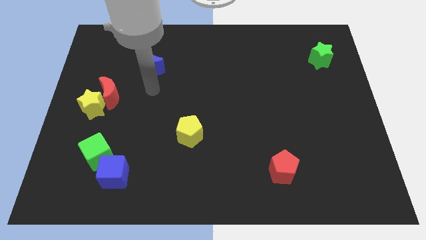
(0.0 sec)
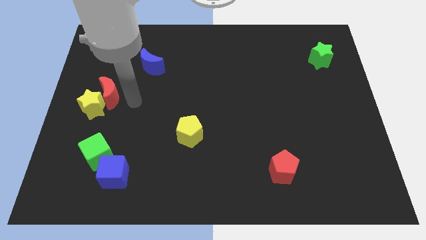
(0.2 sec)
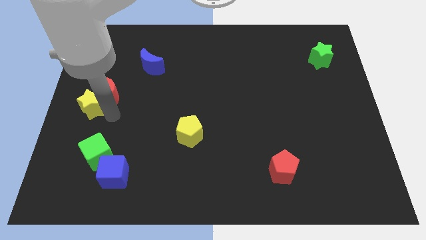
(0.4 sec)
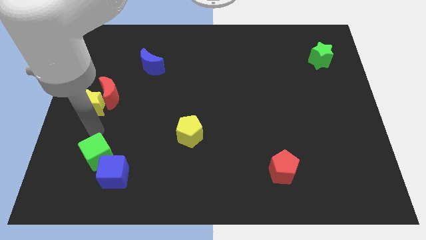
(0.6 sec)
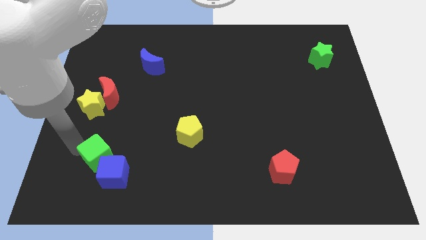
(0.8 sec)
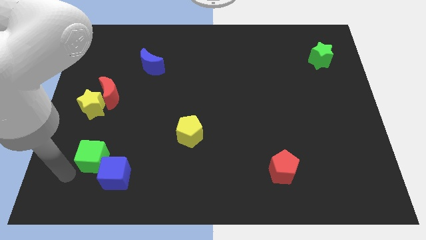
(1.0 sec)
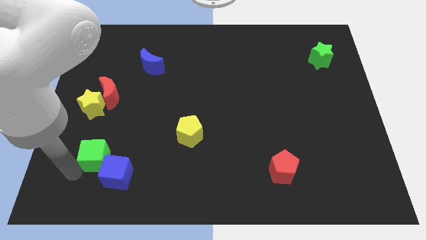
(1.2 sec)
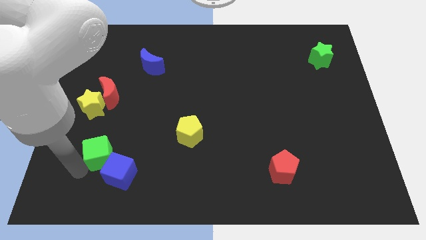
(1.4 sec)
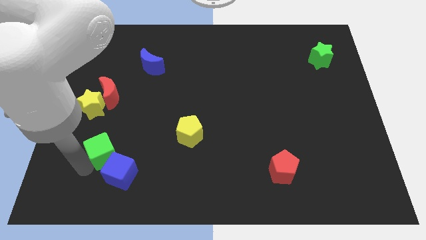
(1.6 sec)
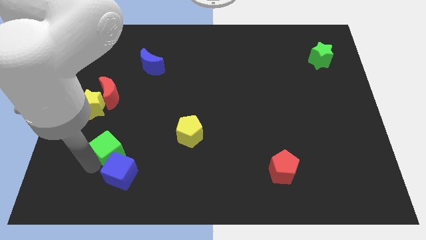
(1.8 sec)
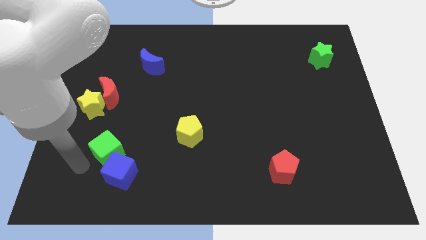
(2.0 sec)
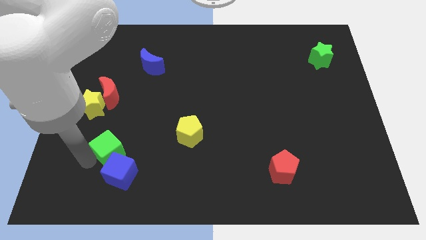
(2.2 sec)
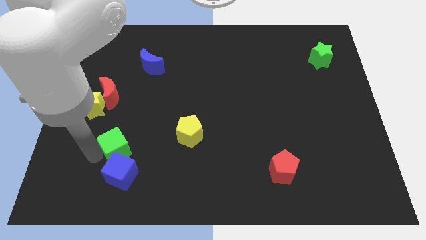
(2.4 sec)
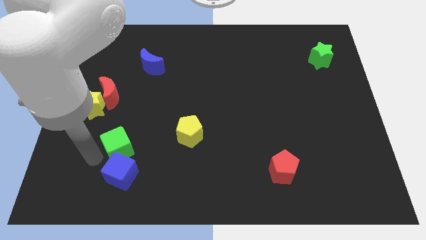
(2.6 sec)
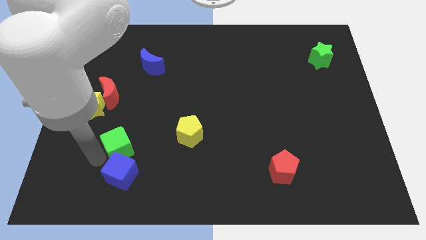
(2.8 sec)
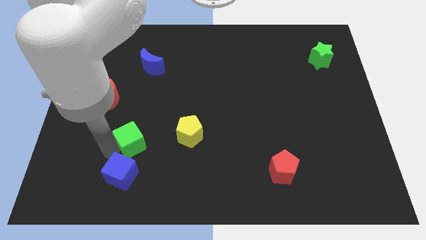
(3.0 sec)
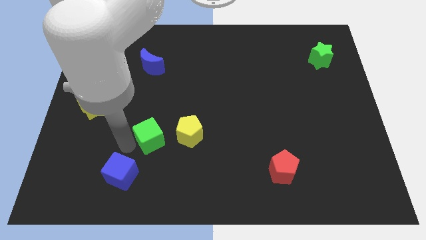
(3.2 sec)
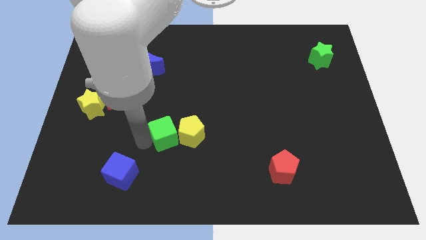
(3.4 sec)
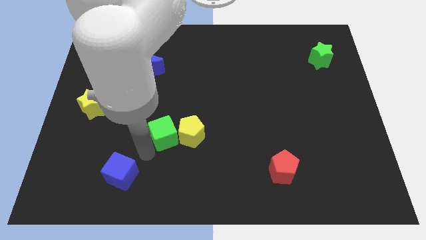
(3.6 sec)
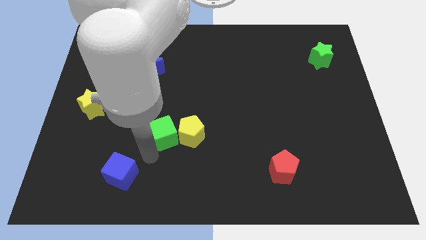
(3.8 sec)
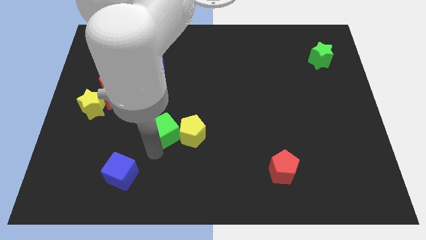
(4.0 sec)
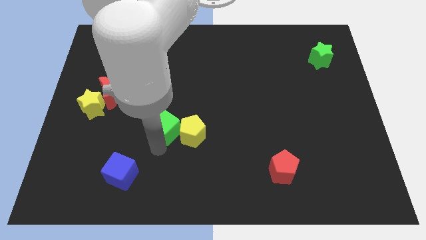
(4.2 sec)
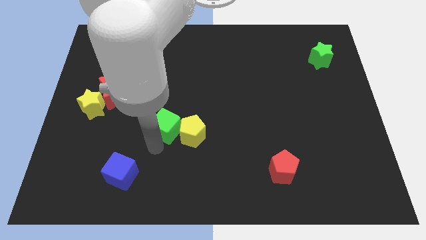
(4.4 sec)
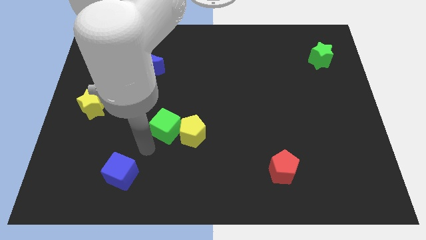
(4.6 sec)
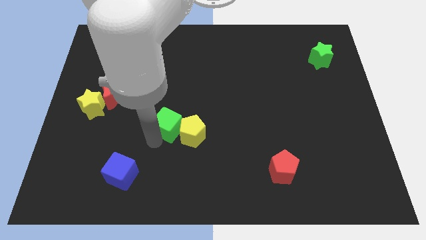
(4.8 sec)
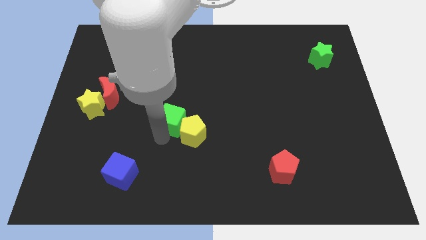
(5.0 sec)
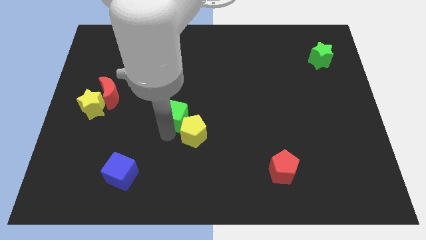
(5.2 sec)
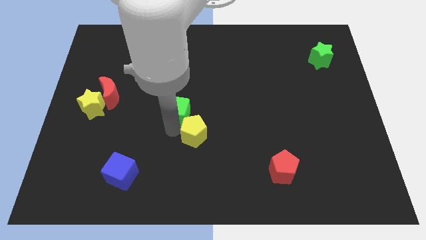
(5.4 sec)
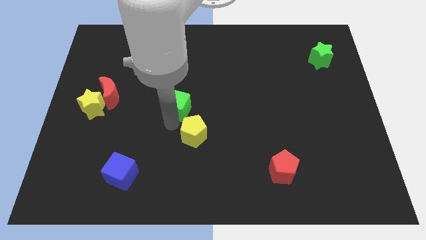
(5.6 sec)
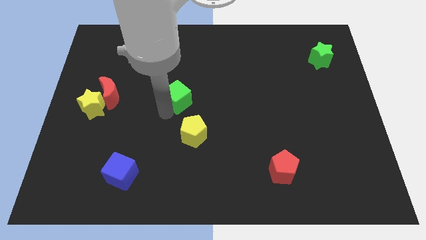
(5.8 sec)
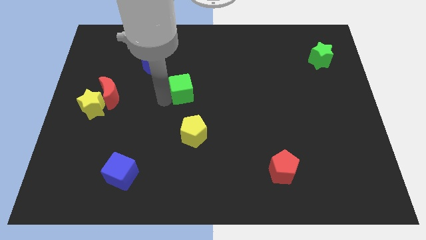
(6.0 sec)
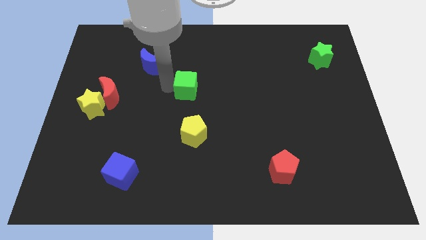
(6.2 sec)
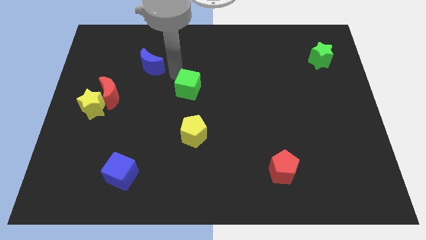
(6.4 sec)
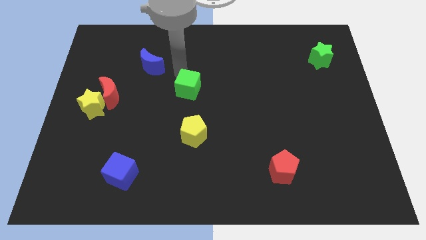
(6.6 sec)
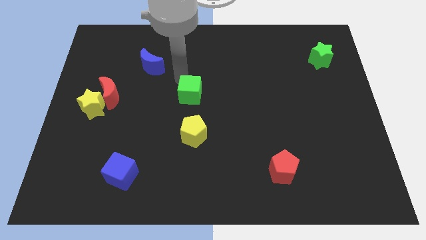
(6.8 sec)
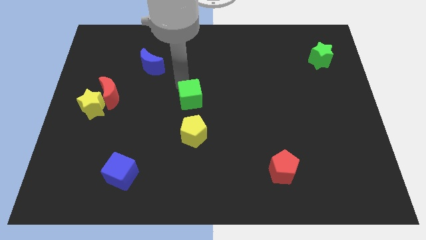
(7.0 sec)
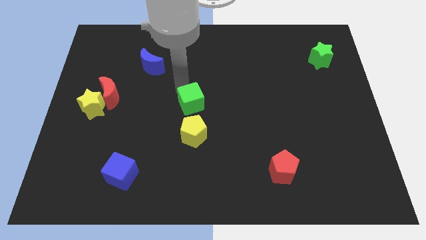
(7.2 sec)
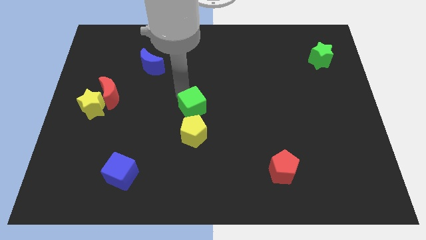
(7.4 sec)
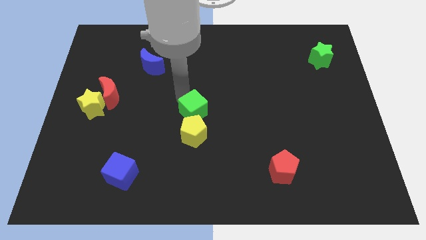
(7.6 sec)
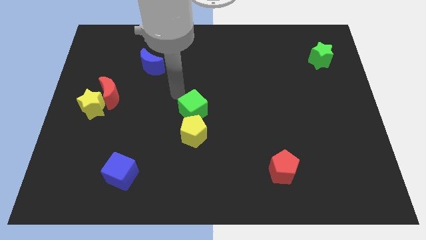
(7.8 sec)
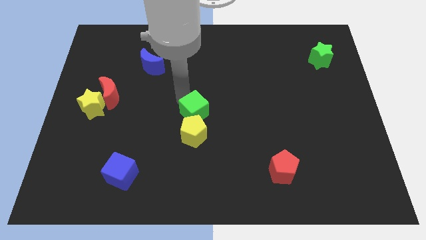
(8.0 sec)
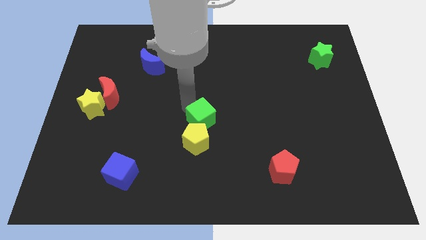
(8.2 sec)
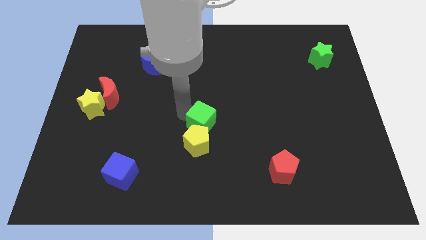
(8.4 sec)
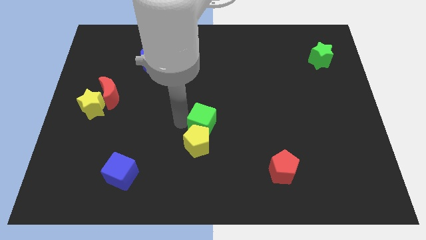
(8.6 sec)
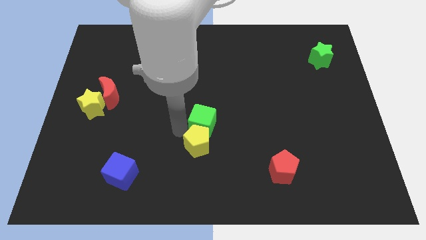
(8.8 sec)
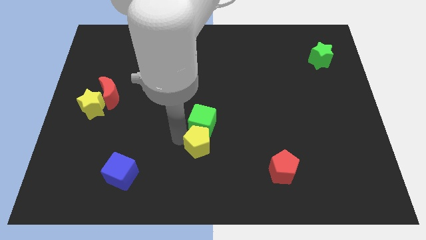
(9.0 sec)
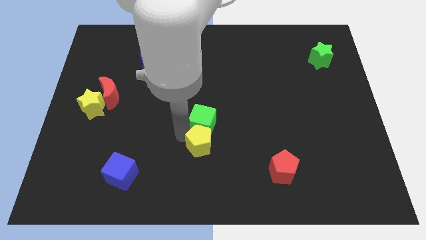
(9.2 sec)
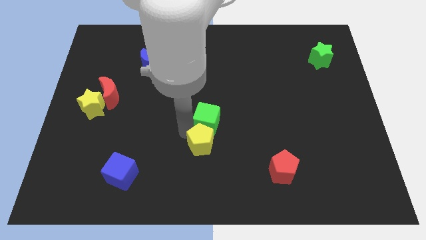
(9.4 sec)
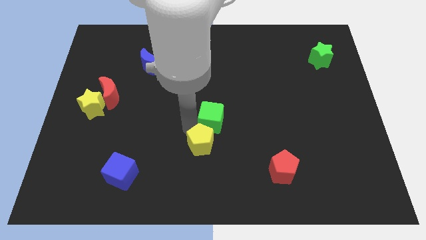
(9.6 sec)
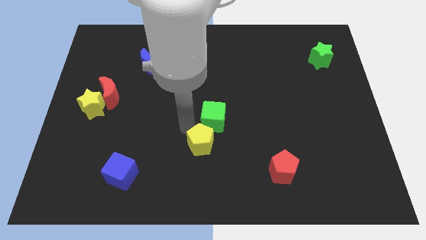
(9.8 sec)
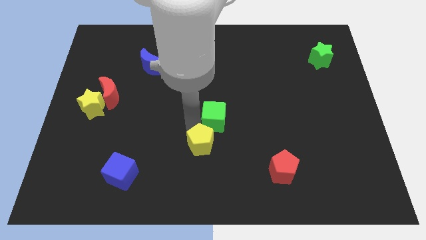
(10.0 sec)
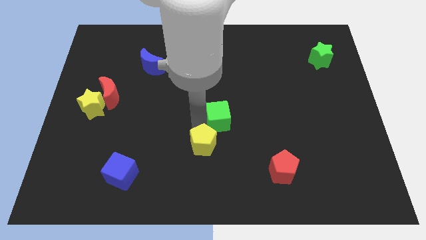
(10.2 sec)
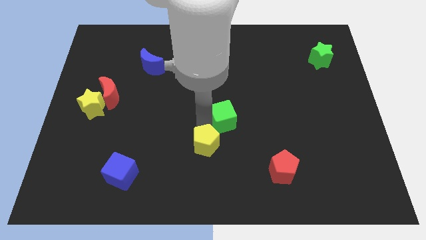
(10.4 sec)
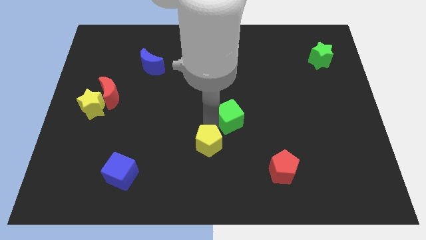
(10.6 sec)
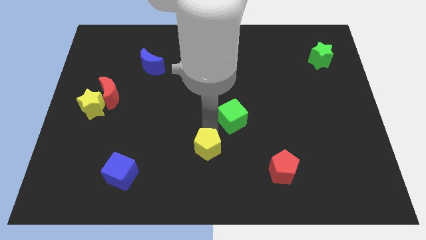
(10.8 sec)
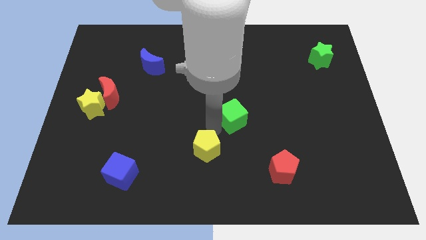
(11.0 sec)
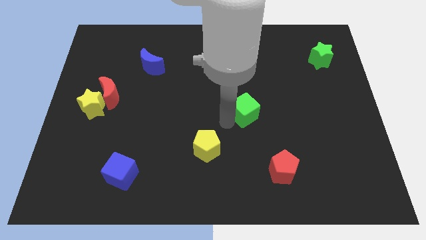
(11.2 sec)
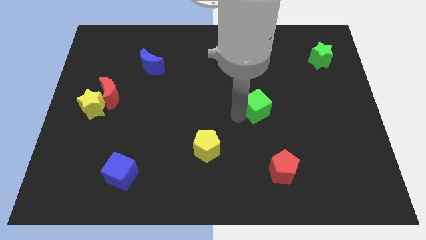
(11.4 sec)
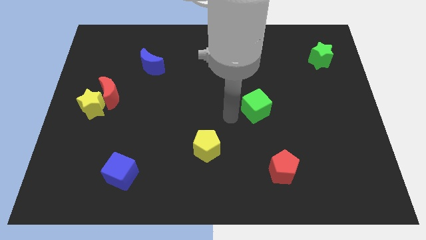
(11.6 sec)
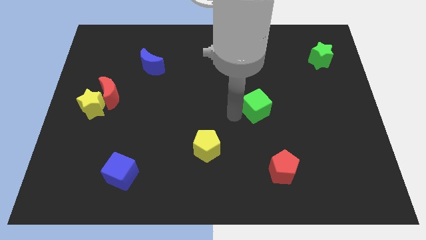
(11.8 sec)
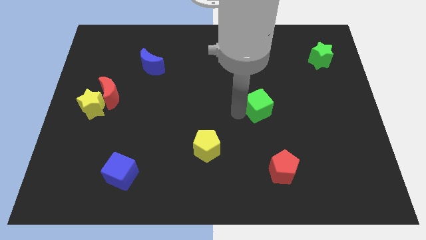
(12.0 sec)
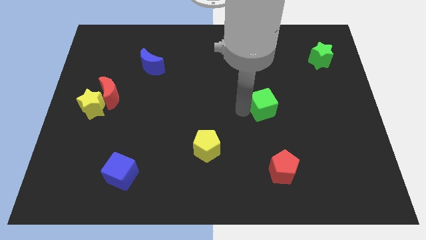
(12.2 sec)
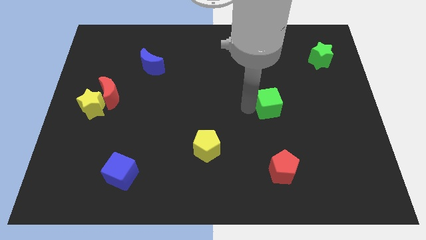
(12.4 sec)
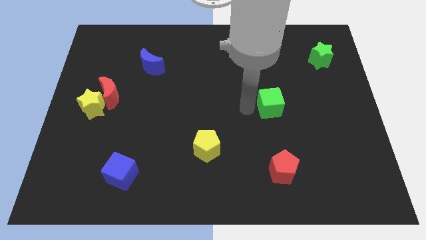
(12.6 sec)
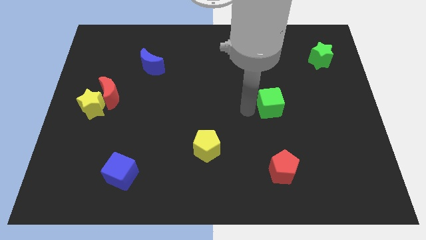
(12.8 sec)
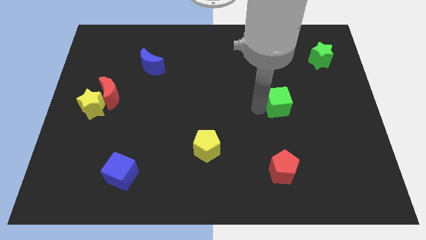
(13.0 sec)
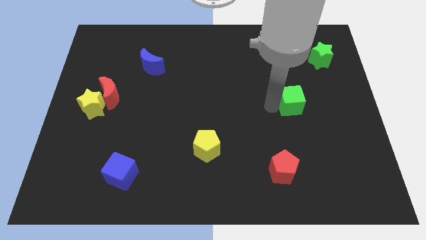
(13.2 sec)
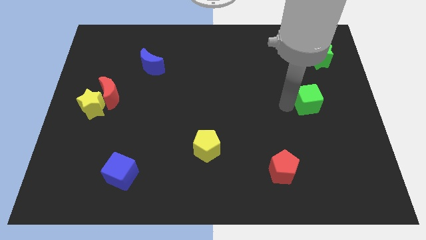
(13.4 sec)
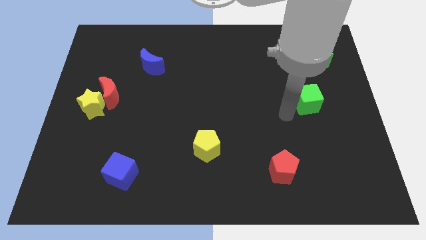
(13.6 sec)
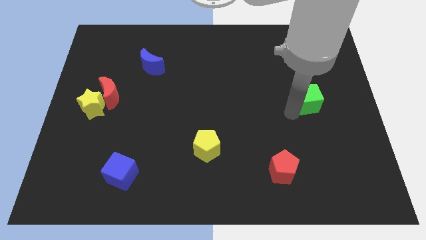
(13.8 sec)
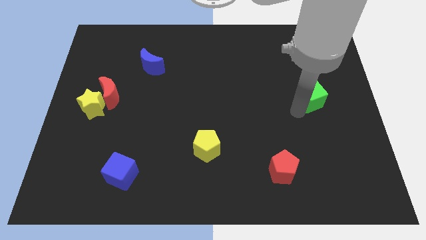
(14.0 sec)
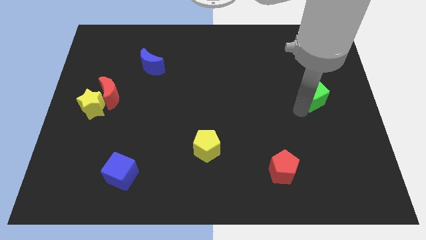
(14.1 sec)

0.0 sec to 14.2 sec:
move the green cube to the bottom side of the green star

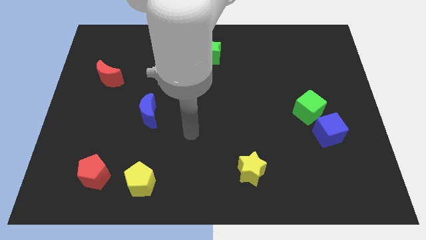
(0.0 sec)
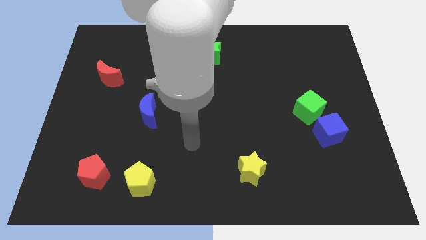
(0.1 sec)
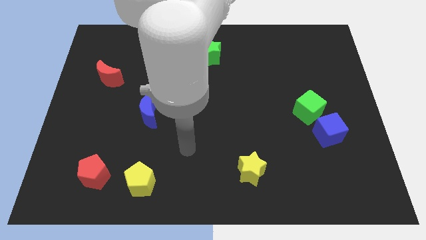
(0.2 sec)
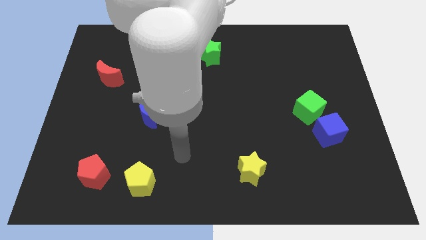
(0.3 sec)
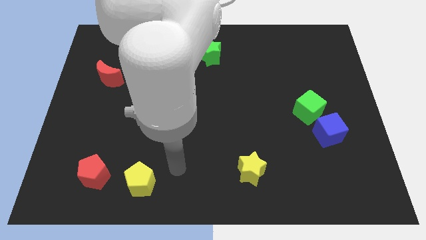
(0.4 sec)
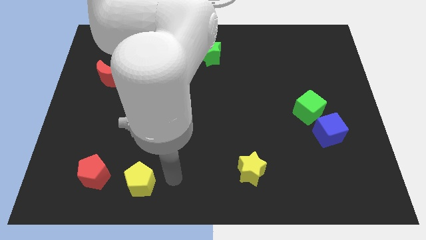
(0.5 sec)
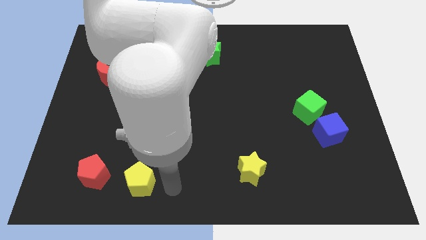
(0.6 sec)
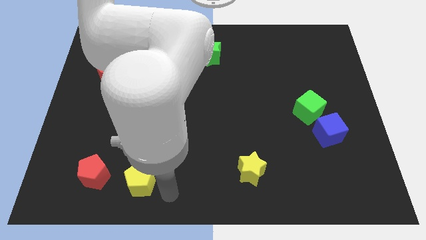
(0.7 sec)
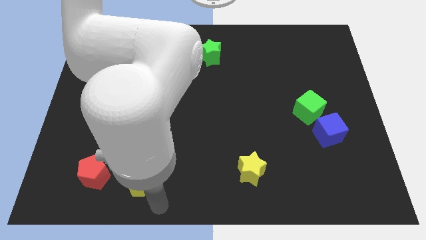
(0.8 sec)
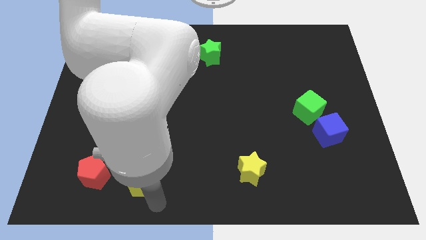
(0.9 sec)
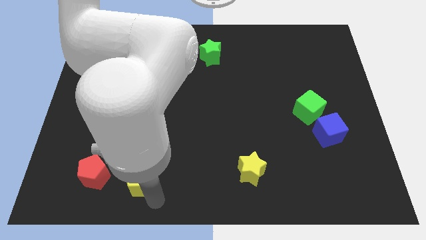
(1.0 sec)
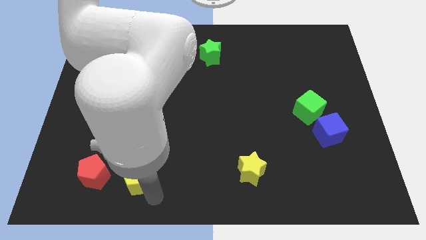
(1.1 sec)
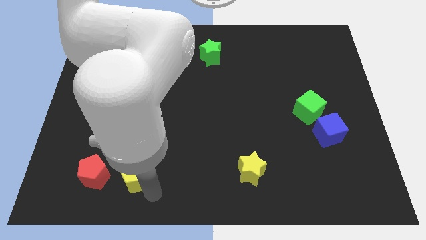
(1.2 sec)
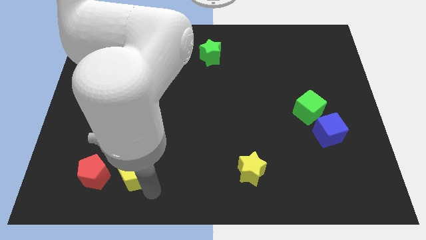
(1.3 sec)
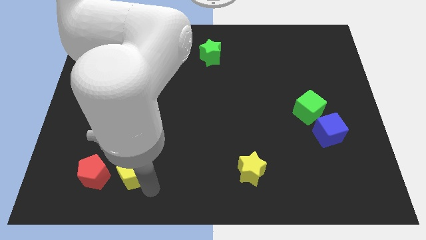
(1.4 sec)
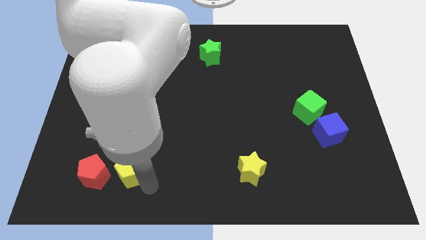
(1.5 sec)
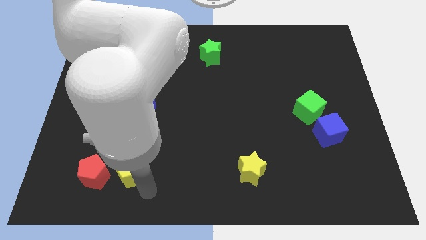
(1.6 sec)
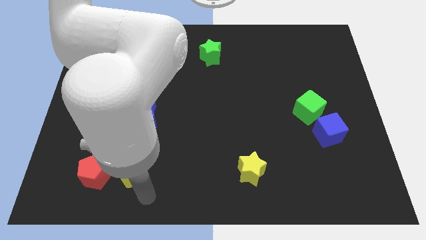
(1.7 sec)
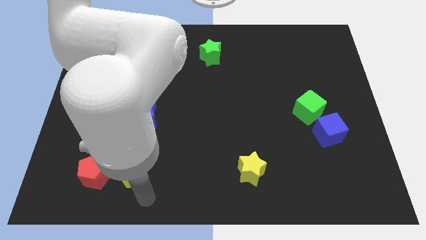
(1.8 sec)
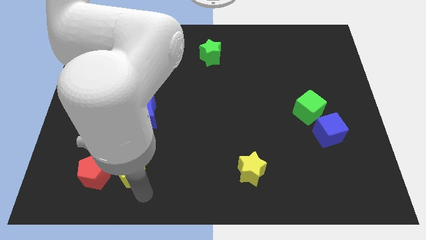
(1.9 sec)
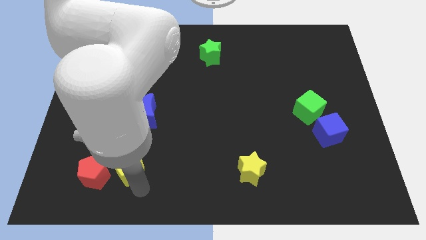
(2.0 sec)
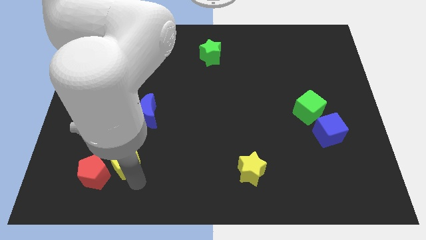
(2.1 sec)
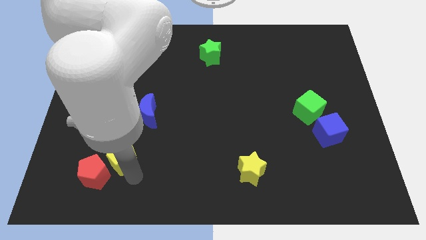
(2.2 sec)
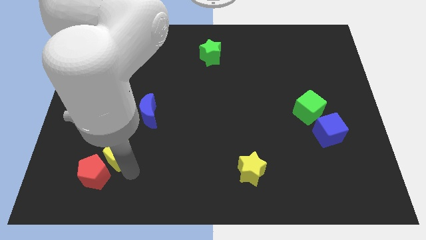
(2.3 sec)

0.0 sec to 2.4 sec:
push the yellow pentagon to the top side of the red pentagon
